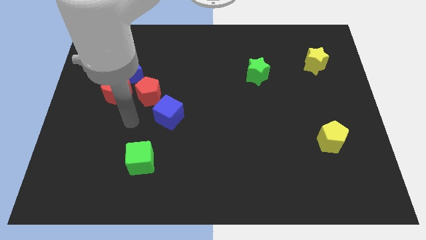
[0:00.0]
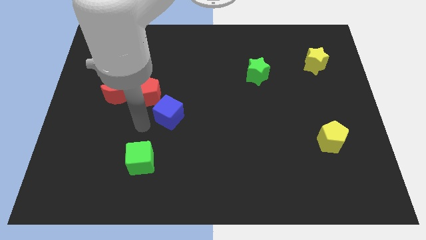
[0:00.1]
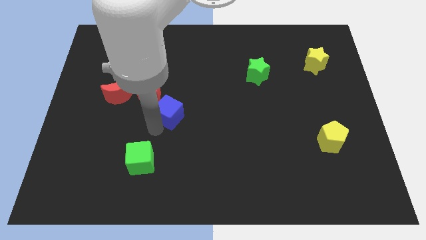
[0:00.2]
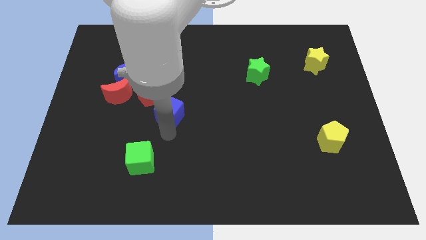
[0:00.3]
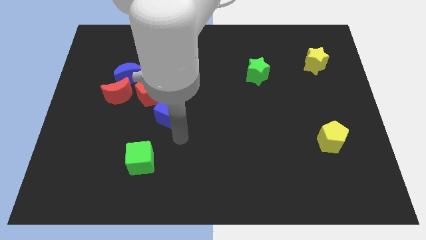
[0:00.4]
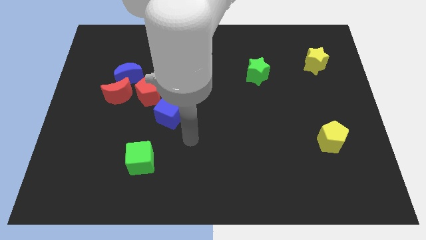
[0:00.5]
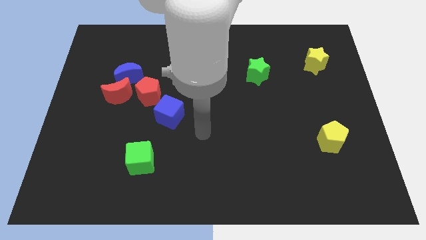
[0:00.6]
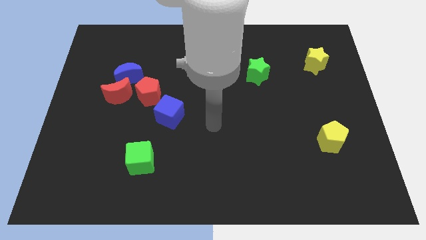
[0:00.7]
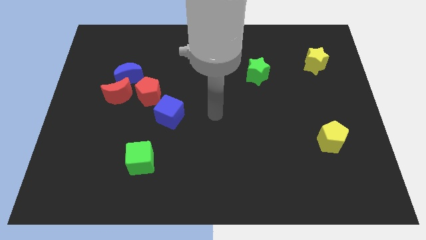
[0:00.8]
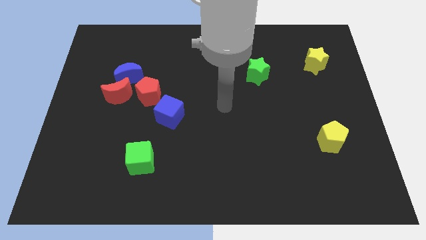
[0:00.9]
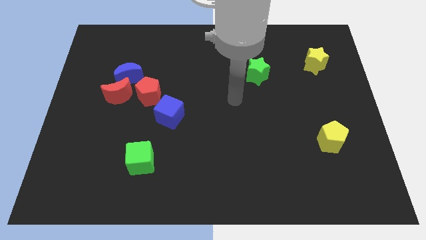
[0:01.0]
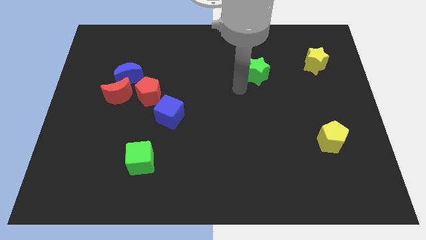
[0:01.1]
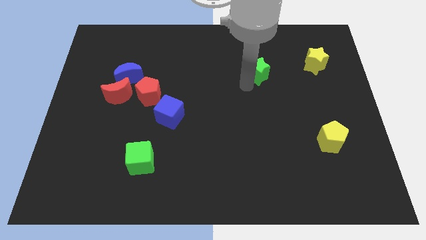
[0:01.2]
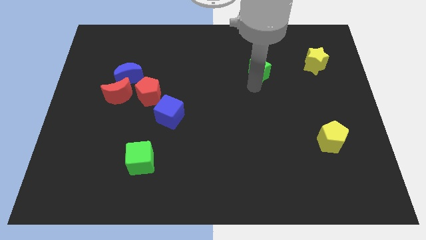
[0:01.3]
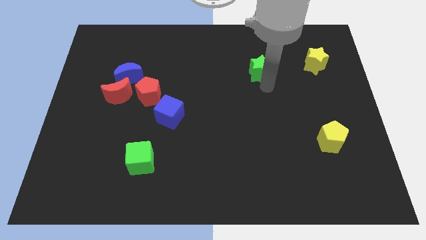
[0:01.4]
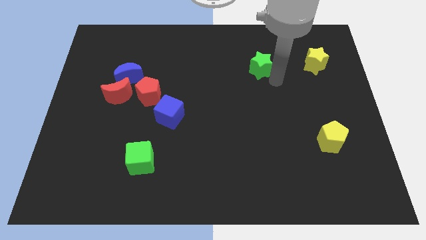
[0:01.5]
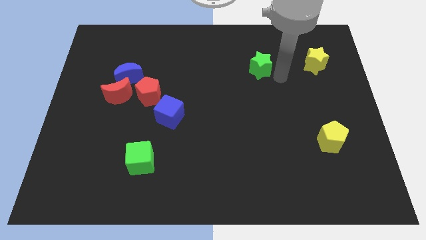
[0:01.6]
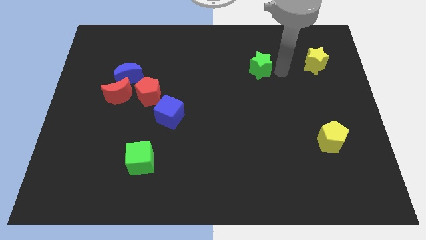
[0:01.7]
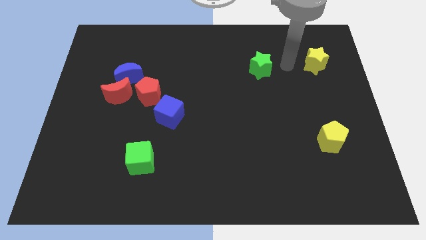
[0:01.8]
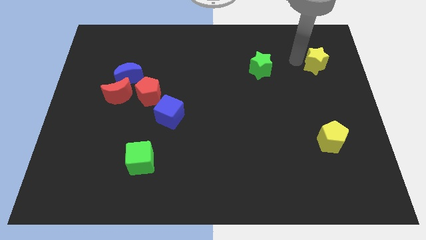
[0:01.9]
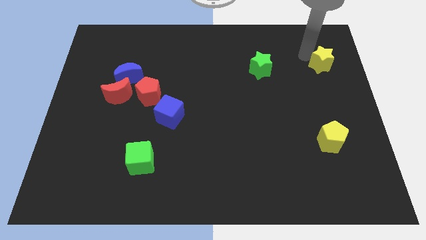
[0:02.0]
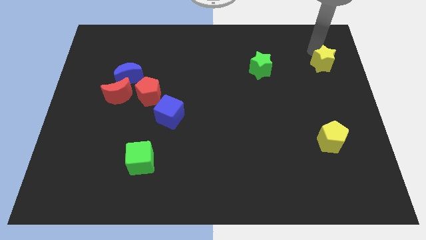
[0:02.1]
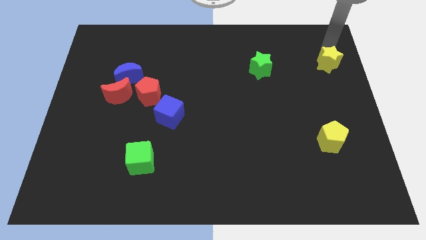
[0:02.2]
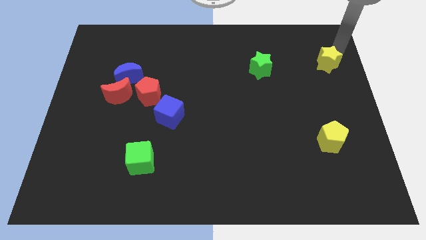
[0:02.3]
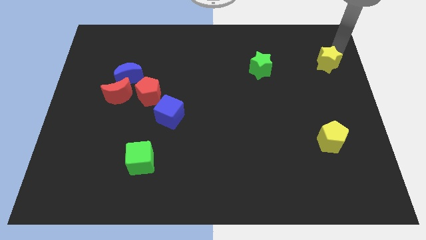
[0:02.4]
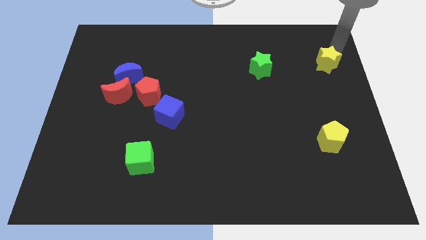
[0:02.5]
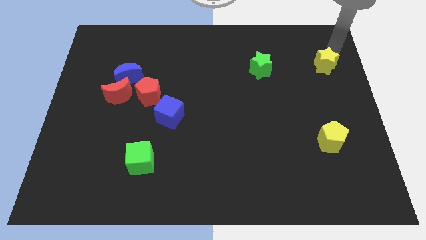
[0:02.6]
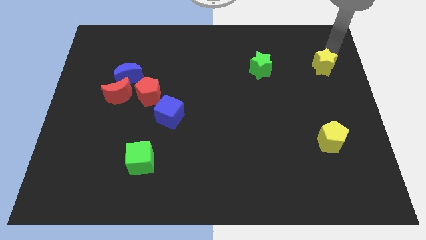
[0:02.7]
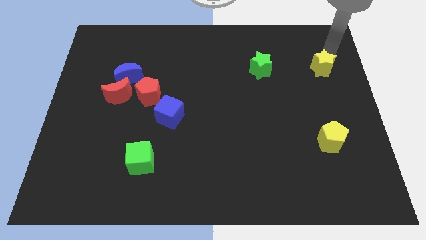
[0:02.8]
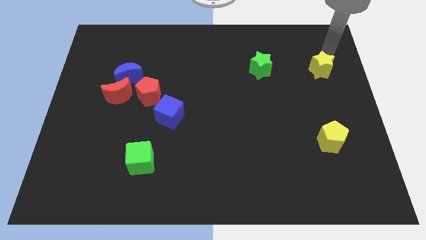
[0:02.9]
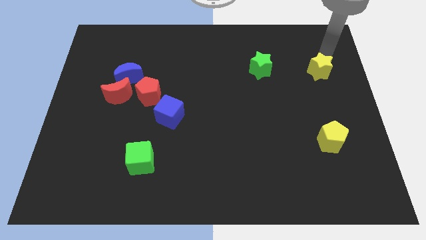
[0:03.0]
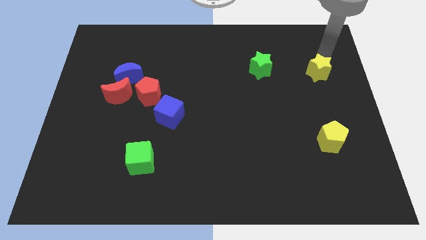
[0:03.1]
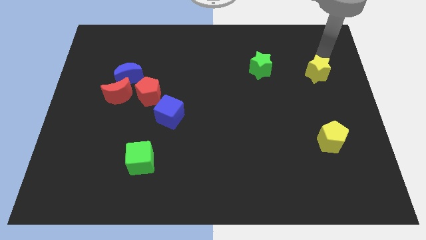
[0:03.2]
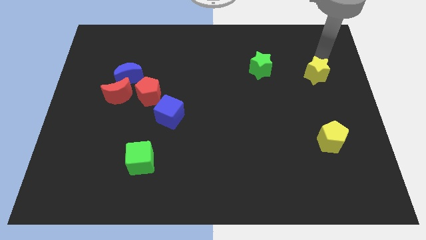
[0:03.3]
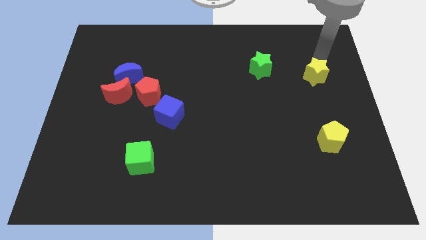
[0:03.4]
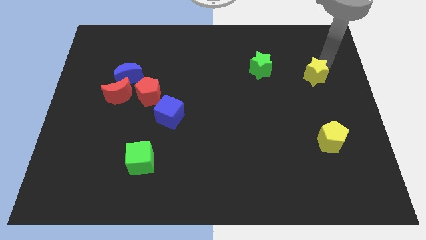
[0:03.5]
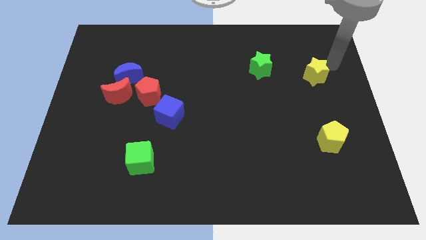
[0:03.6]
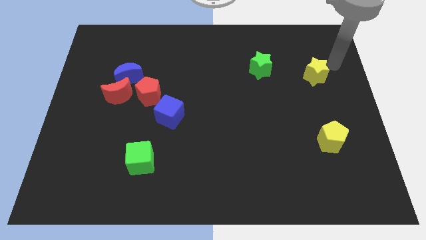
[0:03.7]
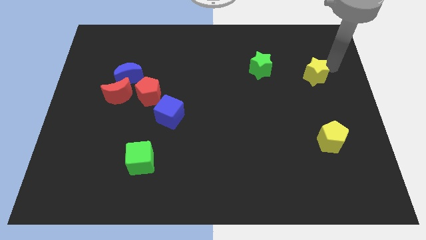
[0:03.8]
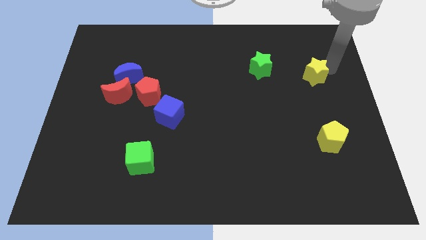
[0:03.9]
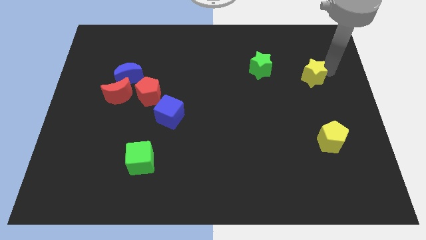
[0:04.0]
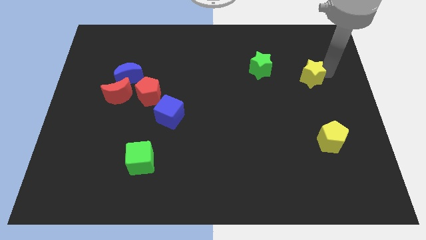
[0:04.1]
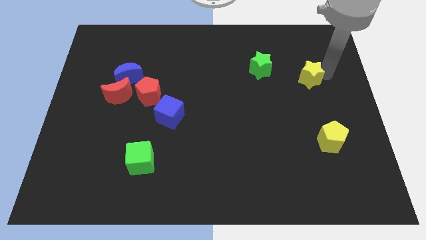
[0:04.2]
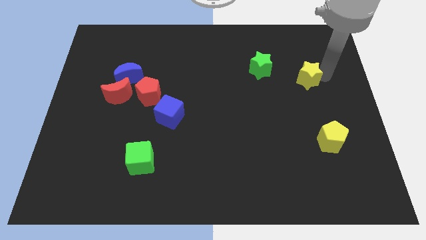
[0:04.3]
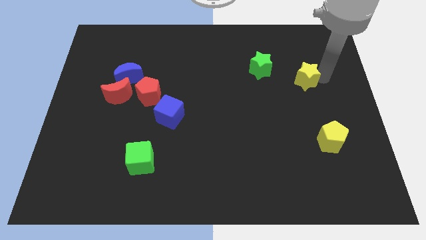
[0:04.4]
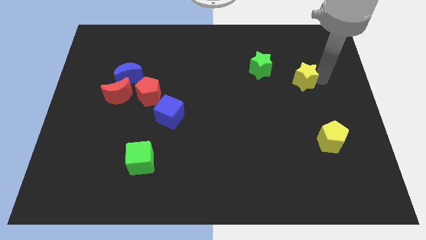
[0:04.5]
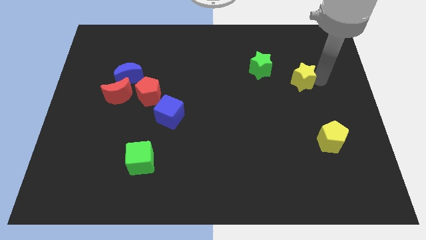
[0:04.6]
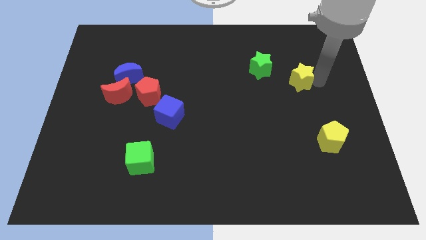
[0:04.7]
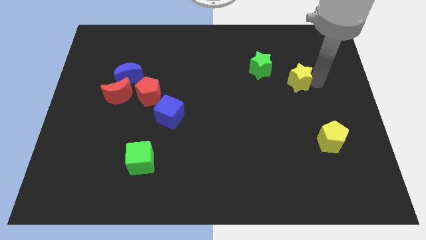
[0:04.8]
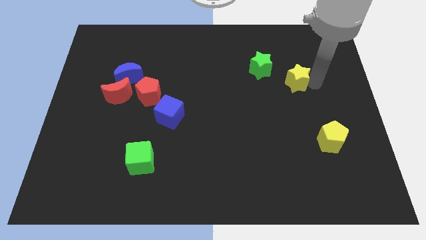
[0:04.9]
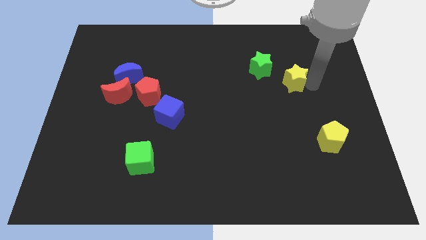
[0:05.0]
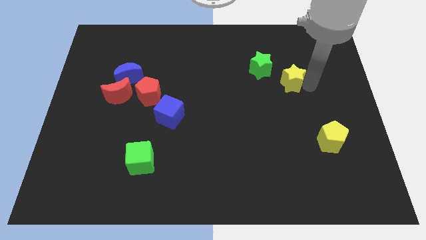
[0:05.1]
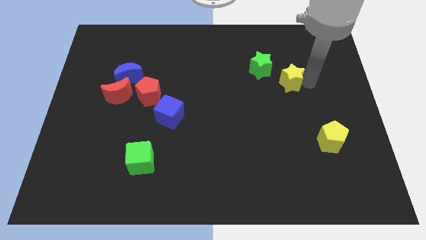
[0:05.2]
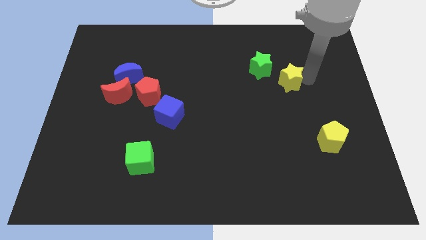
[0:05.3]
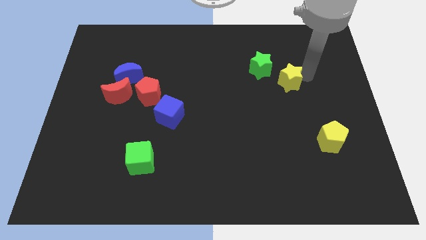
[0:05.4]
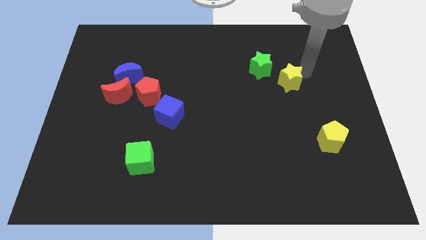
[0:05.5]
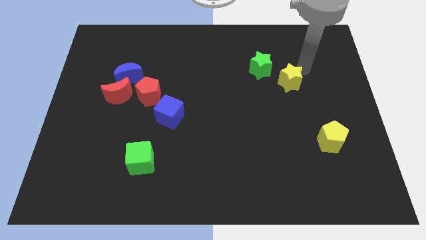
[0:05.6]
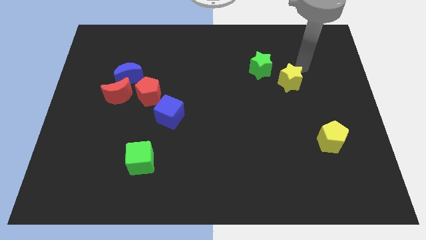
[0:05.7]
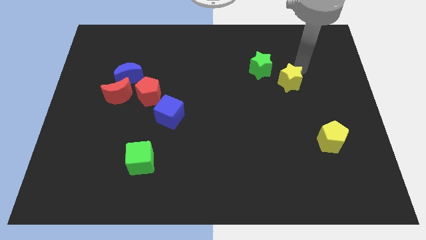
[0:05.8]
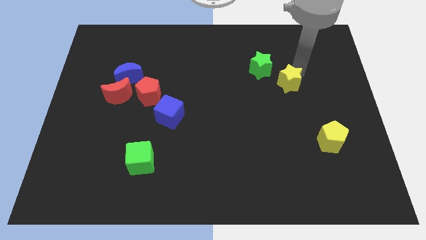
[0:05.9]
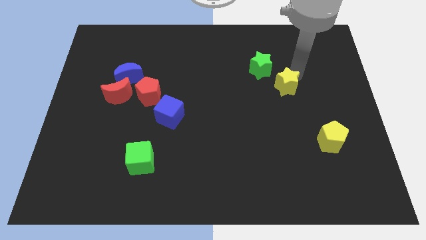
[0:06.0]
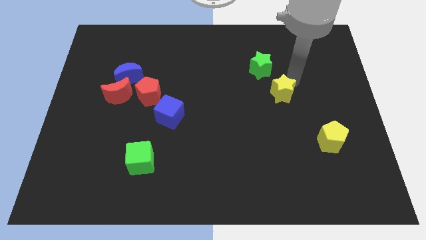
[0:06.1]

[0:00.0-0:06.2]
put the yellow star to the bottom of the green star

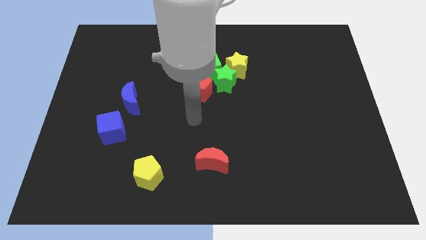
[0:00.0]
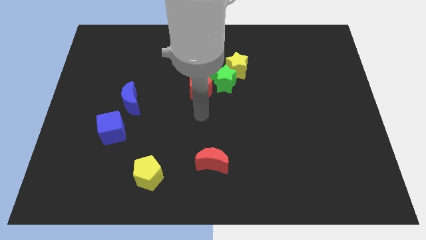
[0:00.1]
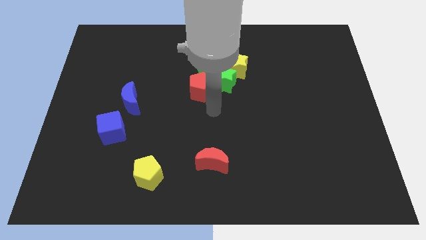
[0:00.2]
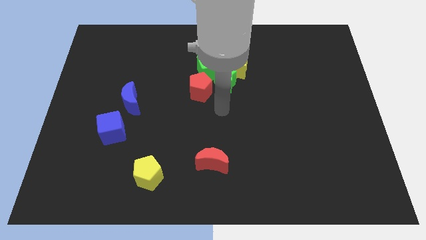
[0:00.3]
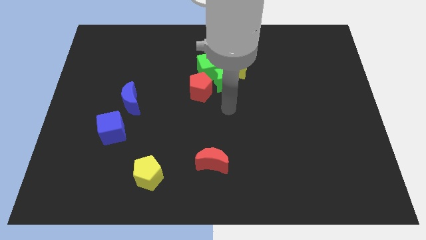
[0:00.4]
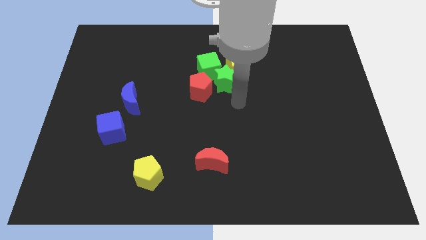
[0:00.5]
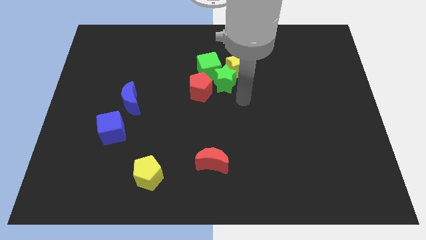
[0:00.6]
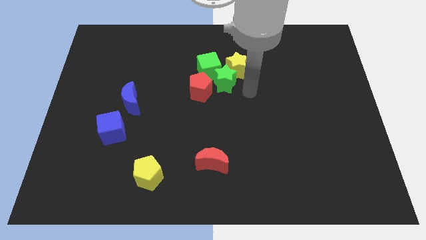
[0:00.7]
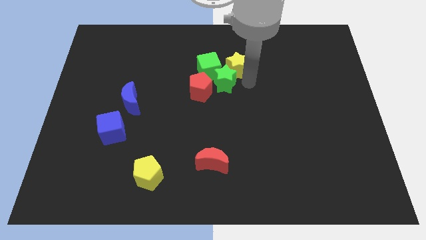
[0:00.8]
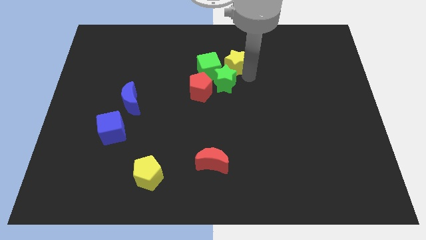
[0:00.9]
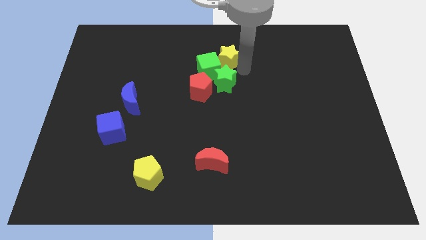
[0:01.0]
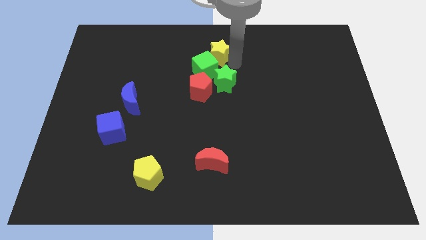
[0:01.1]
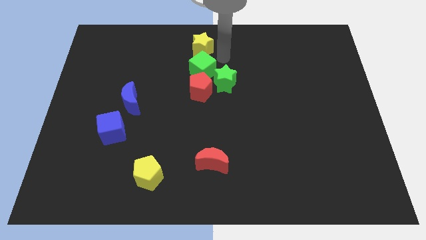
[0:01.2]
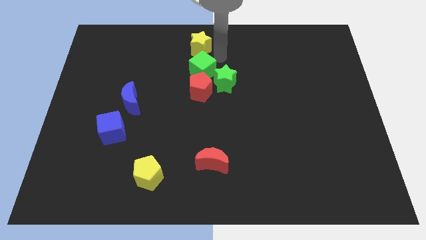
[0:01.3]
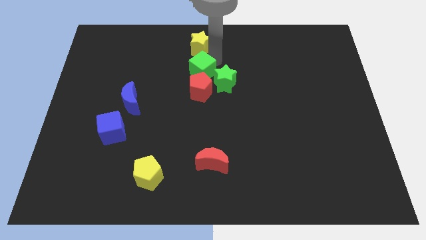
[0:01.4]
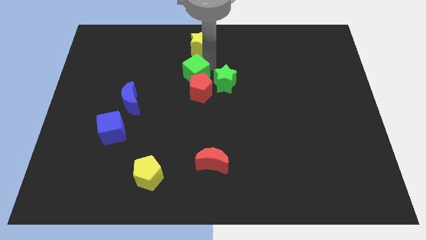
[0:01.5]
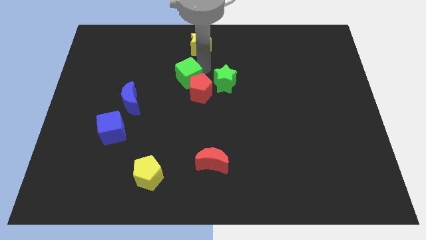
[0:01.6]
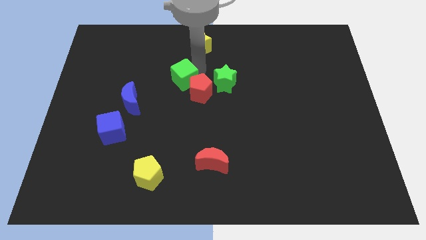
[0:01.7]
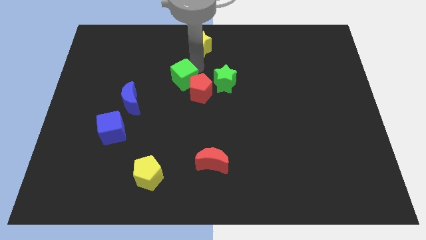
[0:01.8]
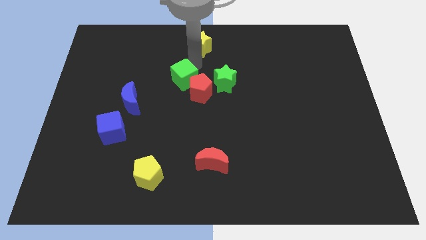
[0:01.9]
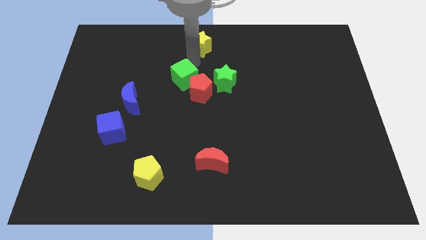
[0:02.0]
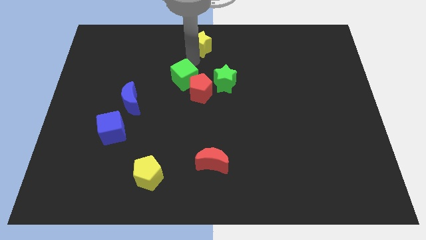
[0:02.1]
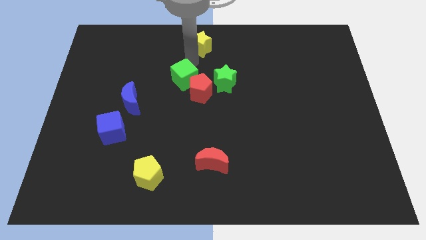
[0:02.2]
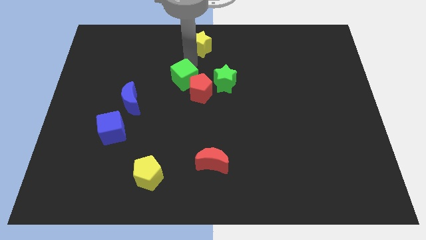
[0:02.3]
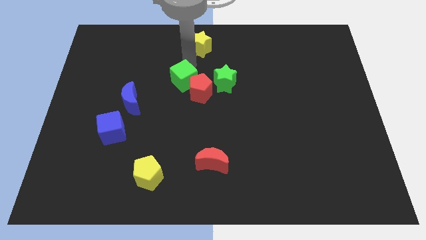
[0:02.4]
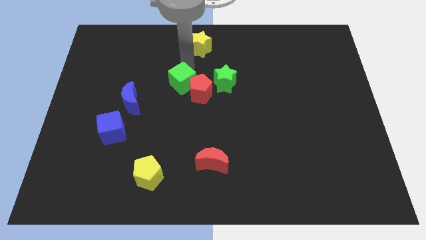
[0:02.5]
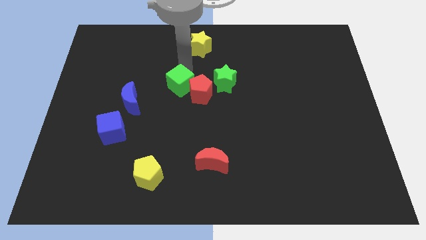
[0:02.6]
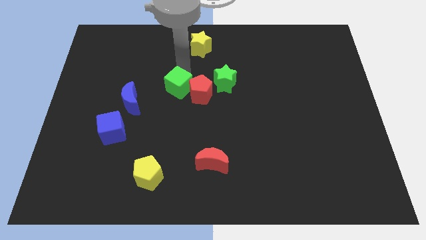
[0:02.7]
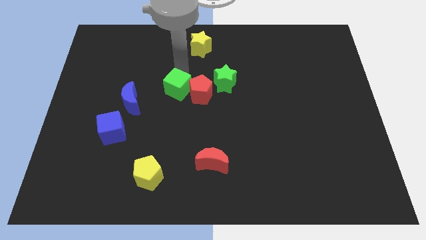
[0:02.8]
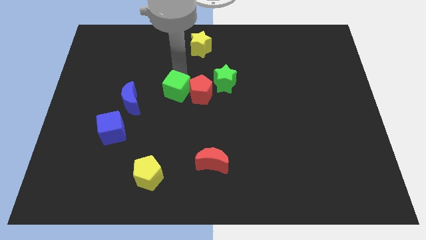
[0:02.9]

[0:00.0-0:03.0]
slide the green cube diagonally down and to the left of the red pentagon
